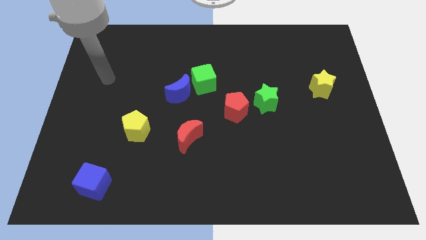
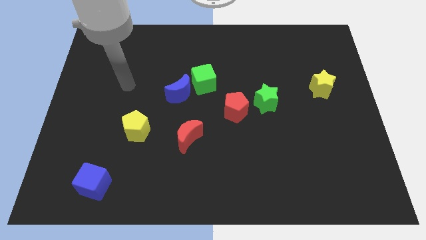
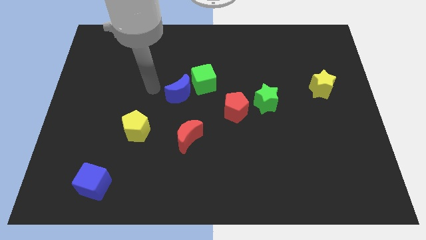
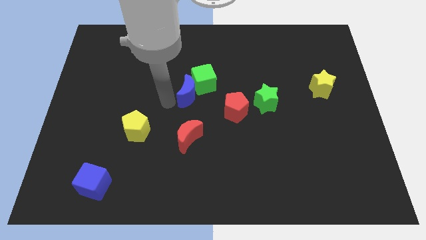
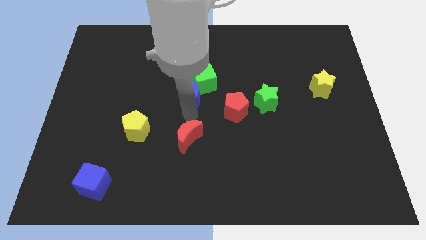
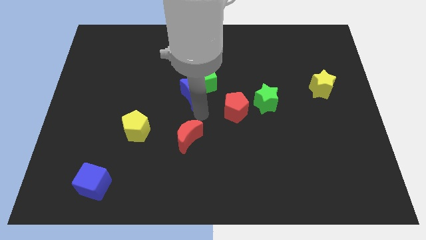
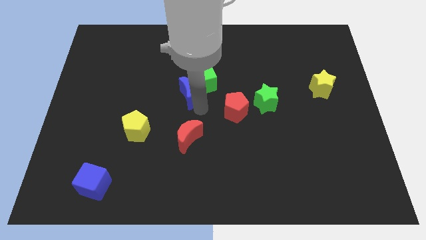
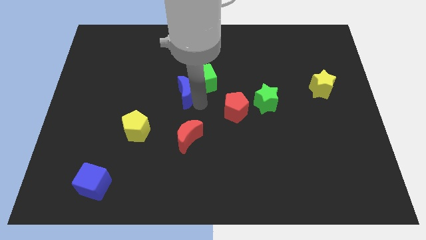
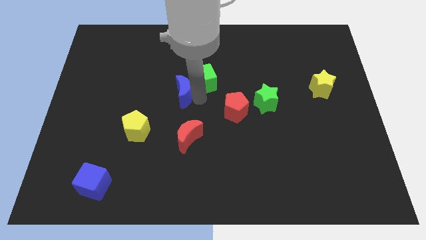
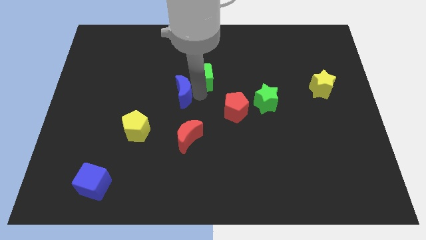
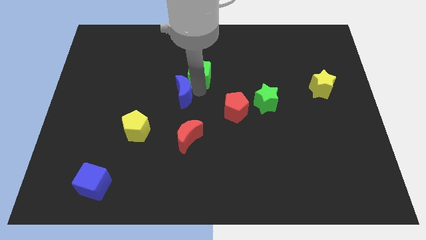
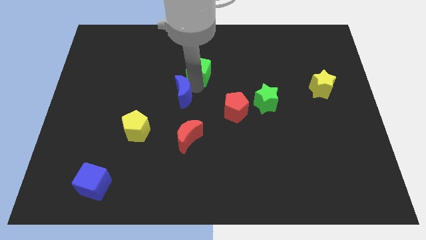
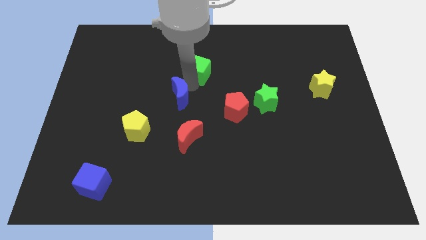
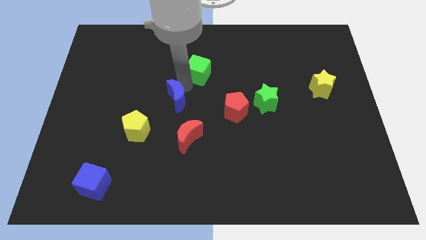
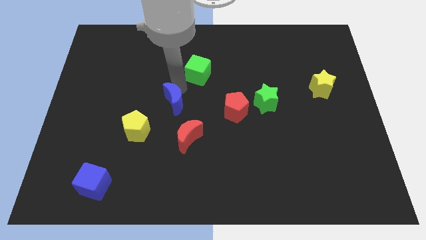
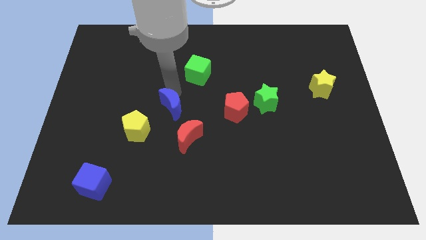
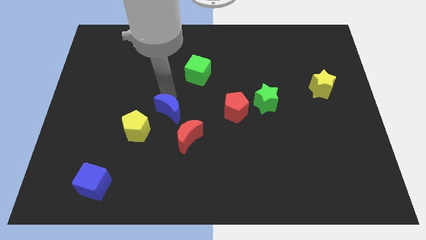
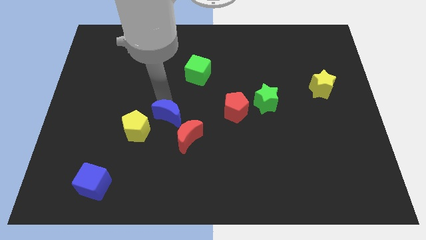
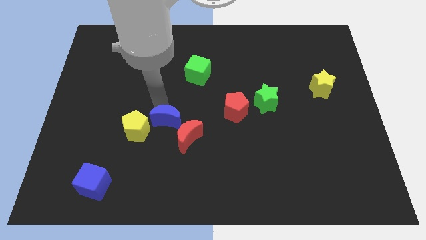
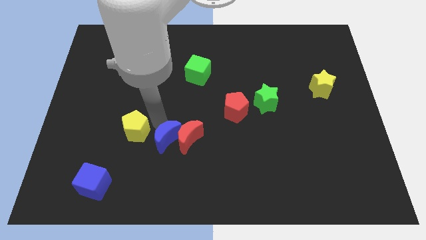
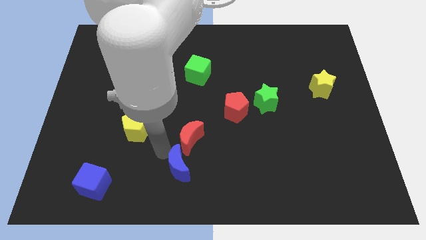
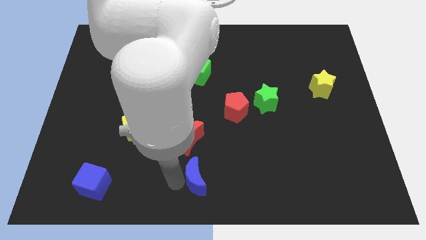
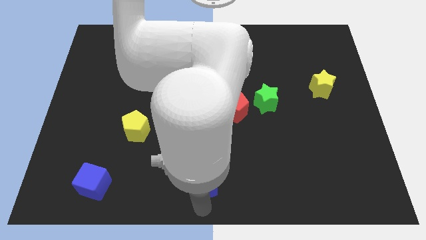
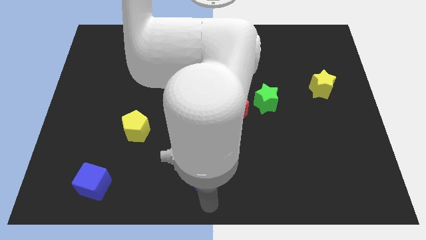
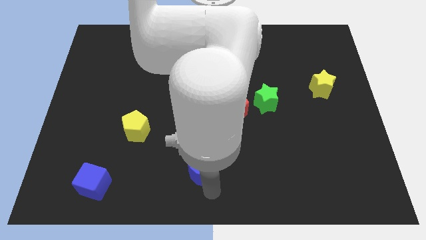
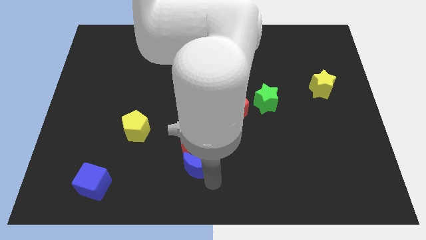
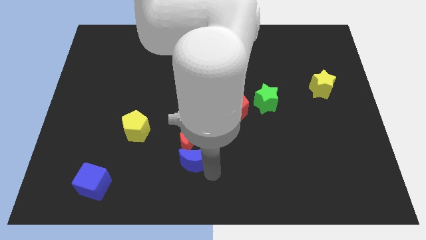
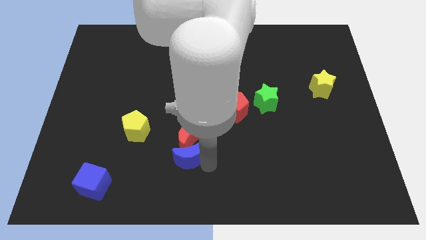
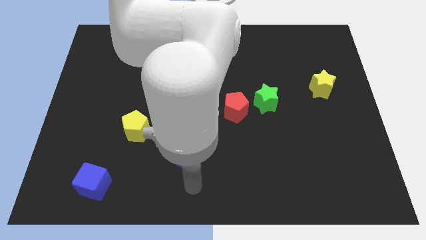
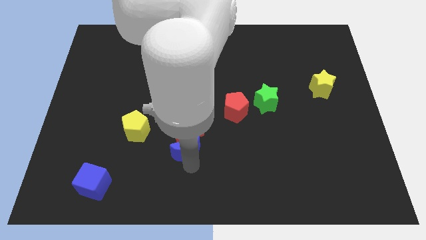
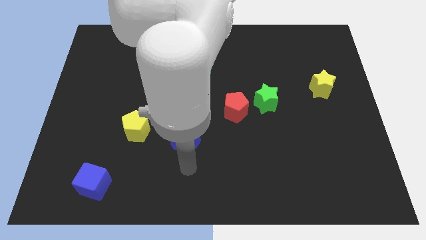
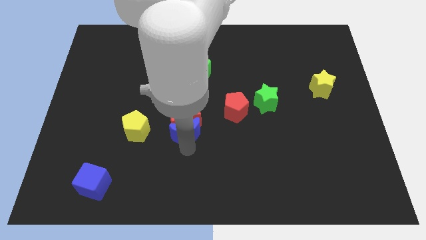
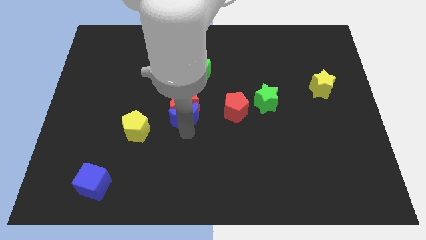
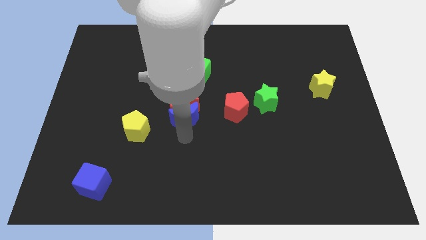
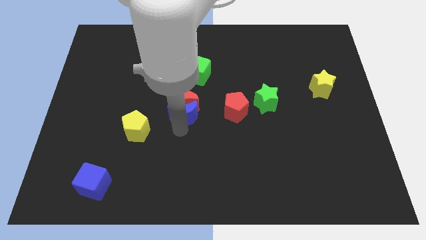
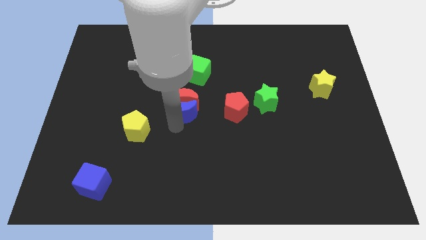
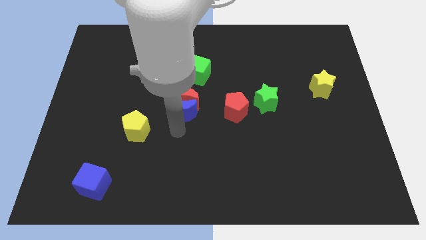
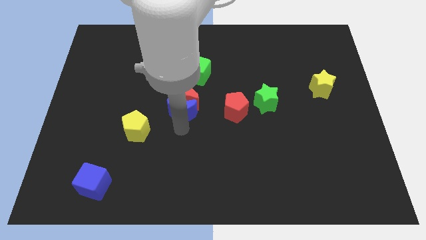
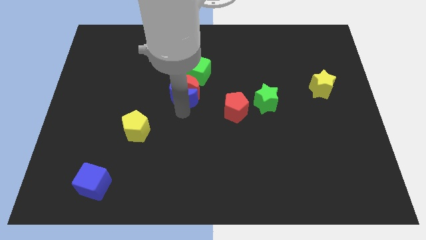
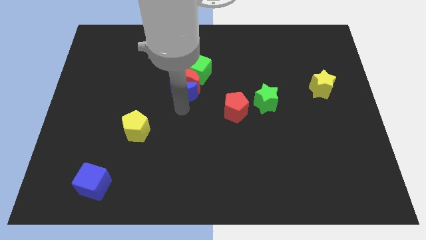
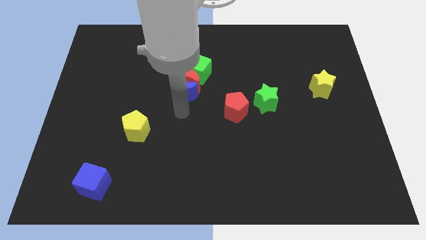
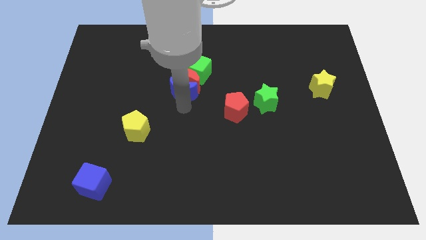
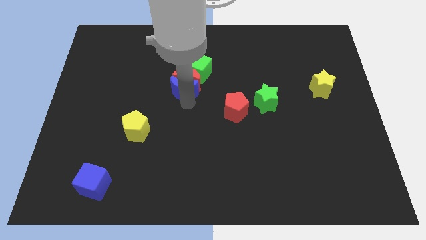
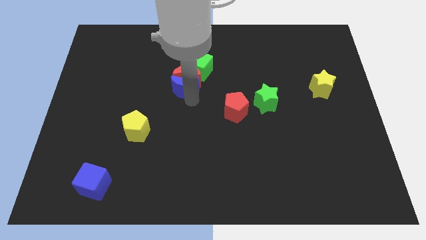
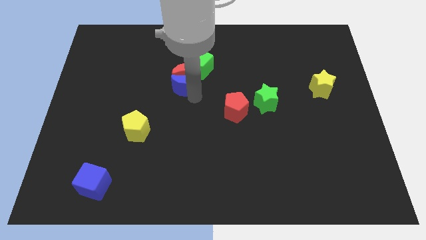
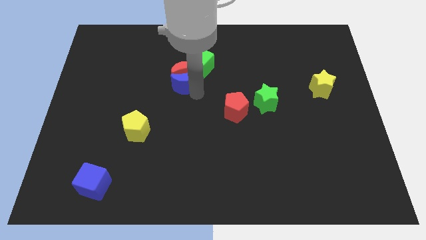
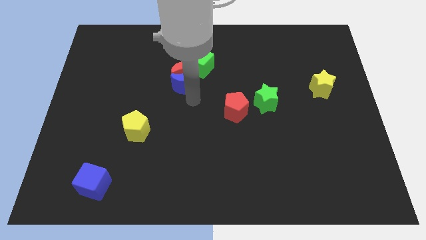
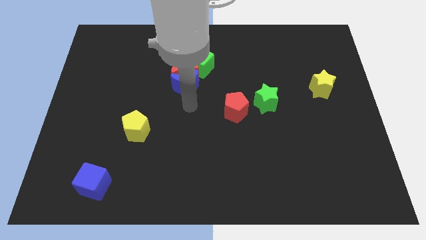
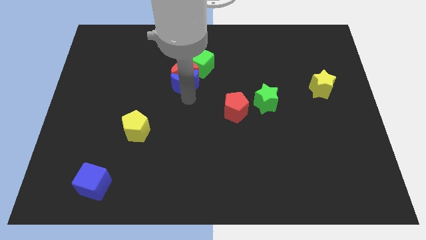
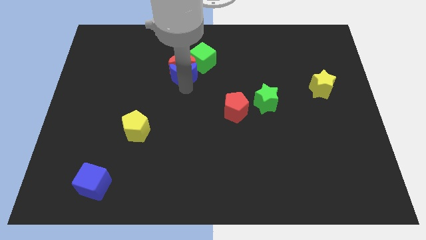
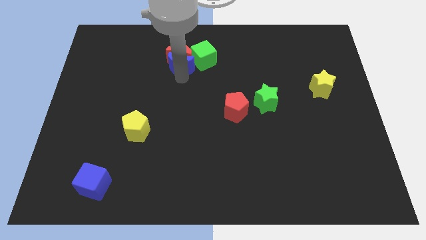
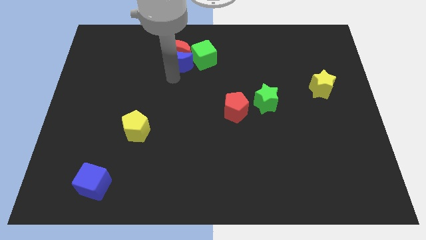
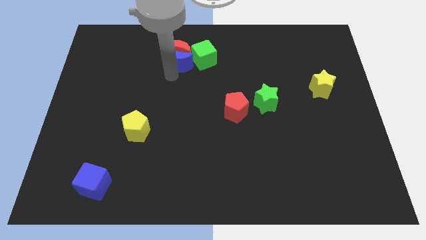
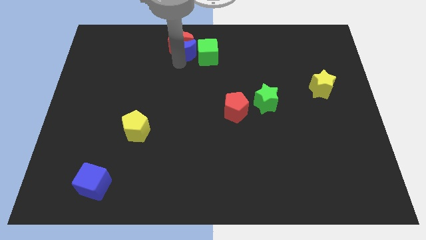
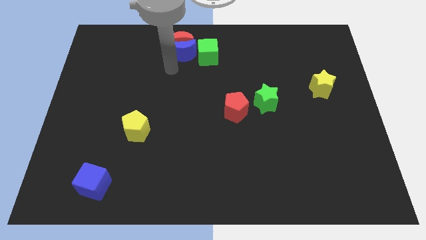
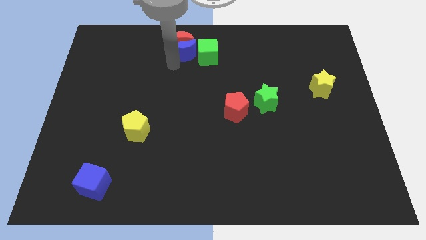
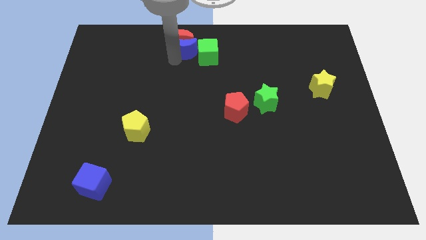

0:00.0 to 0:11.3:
slide the blue moon to the towards your base
